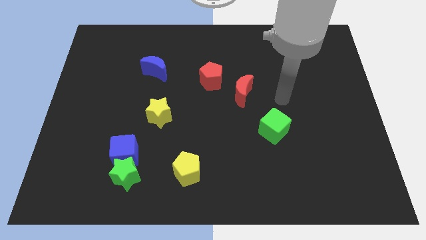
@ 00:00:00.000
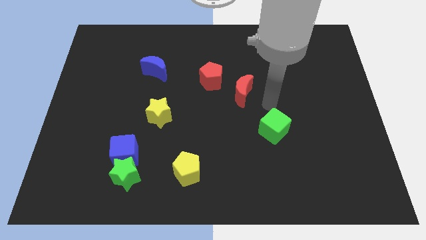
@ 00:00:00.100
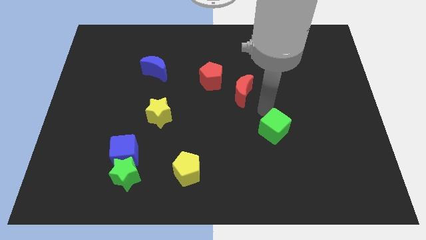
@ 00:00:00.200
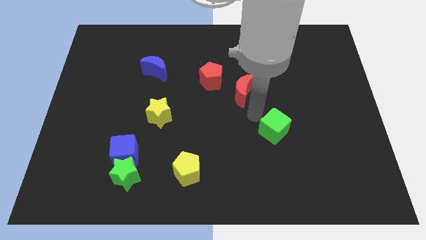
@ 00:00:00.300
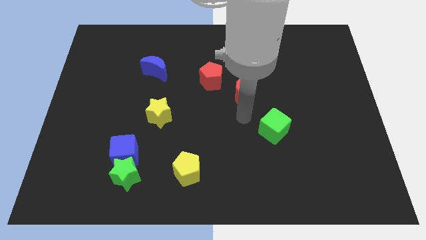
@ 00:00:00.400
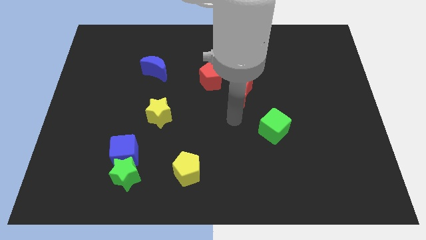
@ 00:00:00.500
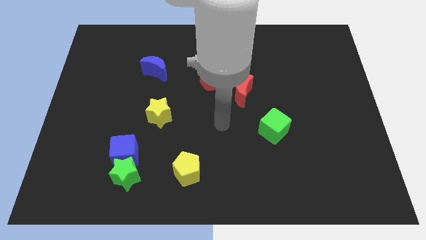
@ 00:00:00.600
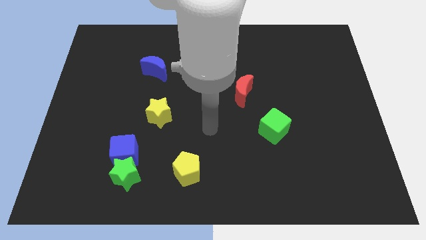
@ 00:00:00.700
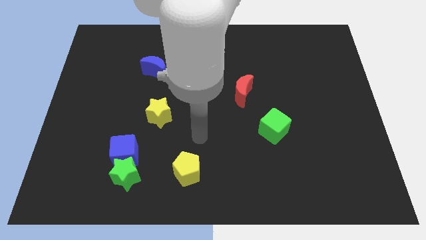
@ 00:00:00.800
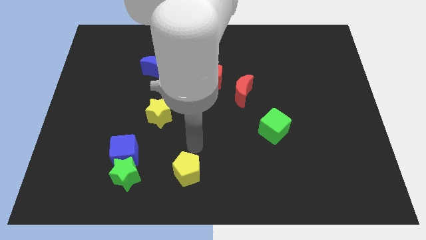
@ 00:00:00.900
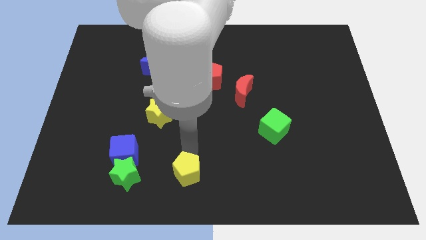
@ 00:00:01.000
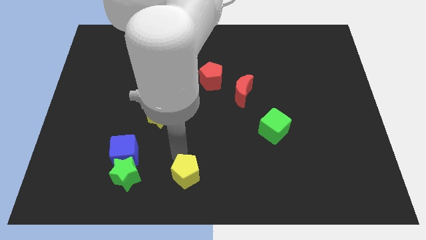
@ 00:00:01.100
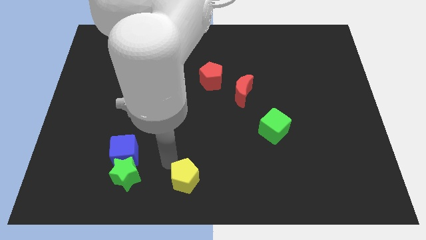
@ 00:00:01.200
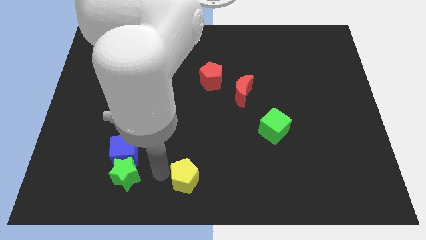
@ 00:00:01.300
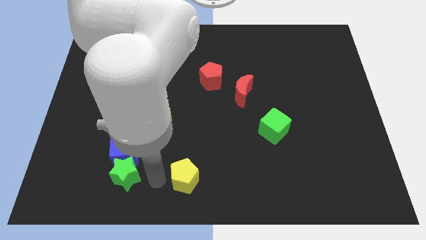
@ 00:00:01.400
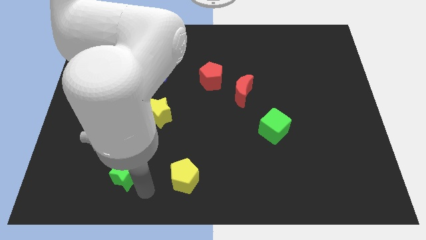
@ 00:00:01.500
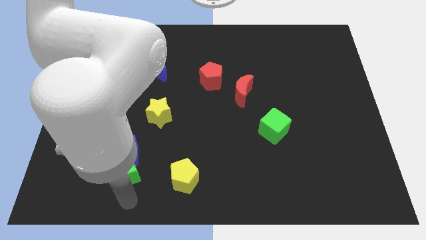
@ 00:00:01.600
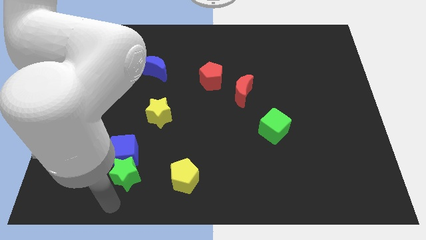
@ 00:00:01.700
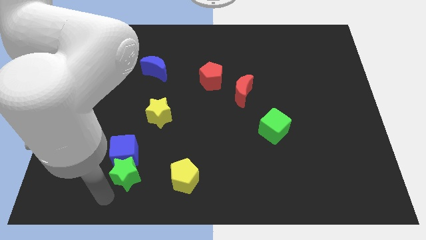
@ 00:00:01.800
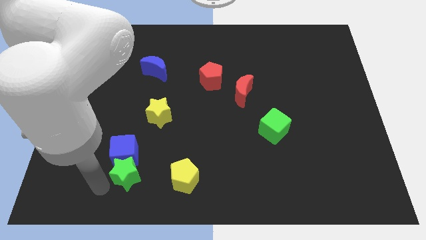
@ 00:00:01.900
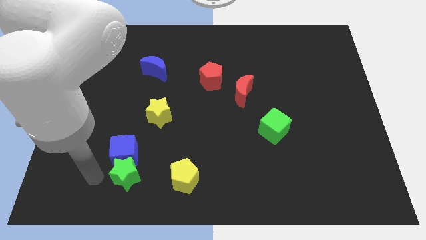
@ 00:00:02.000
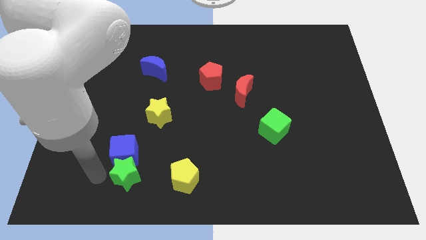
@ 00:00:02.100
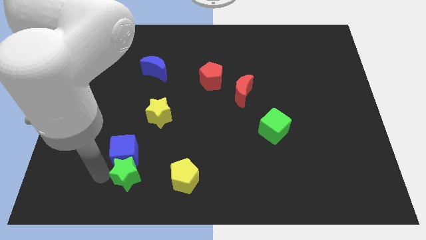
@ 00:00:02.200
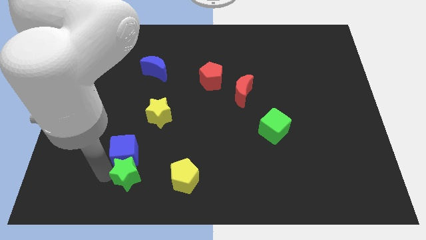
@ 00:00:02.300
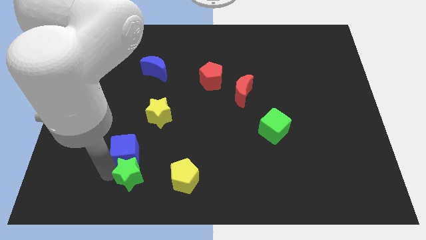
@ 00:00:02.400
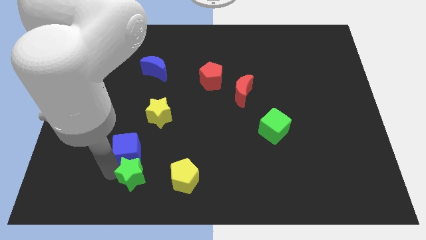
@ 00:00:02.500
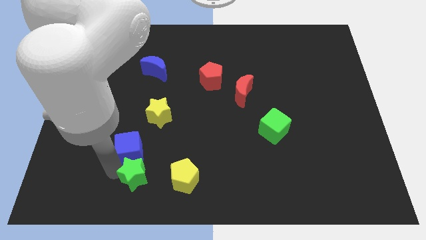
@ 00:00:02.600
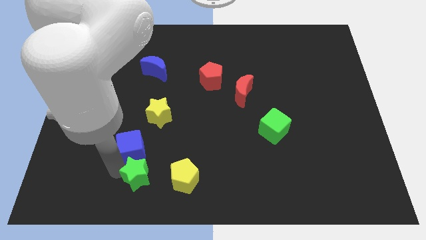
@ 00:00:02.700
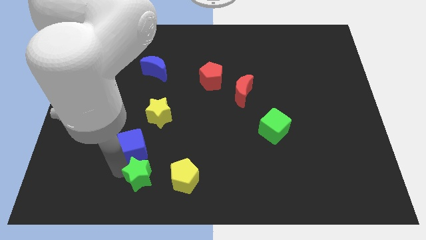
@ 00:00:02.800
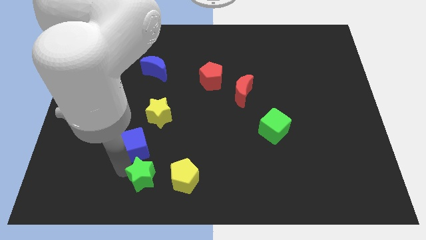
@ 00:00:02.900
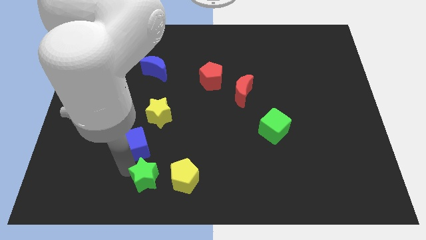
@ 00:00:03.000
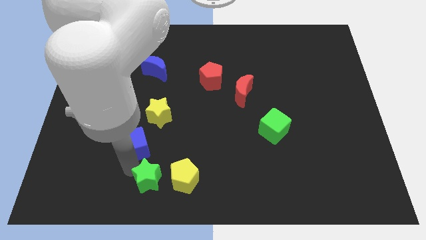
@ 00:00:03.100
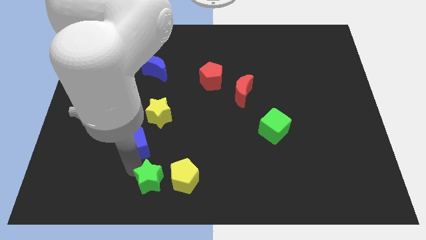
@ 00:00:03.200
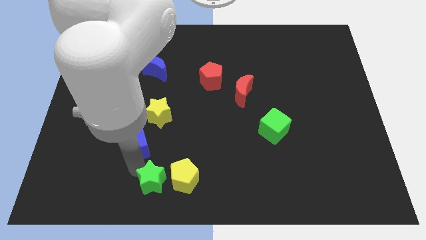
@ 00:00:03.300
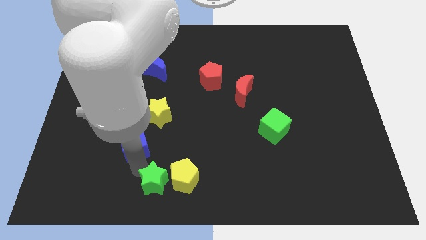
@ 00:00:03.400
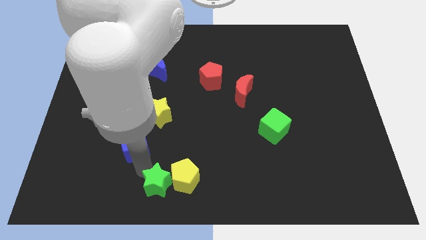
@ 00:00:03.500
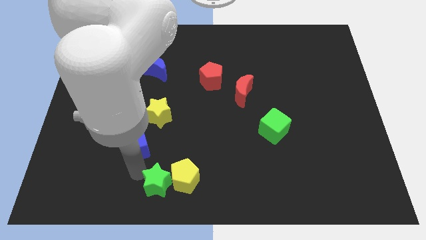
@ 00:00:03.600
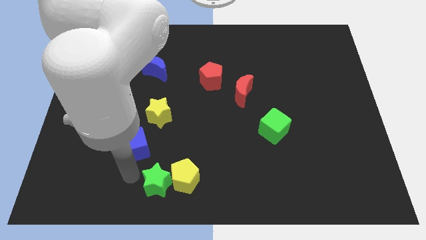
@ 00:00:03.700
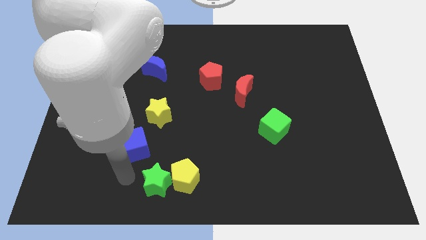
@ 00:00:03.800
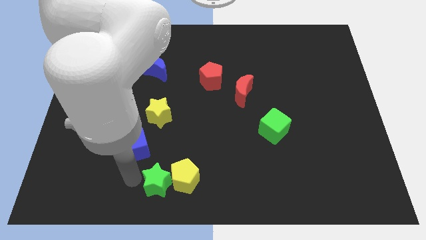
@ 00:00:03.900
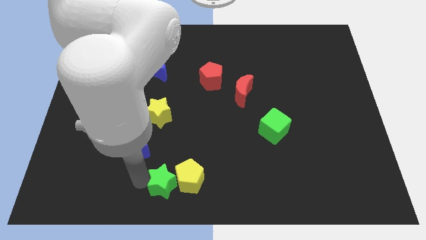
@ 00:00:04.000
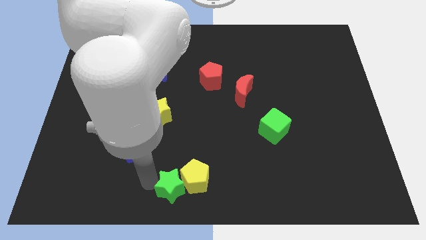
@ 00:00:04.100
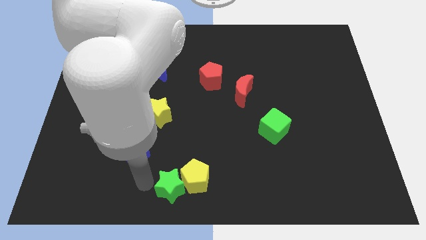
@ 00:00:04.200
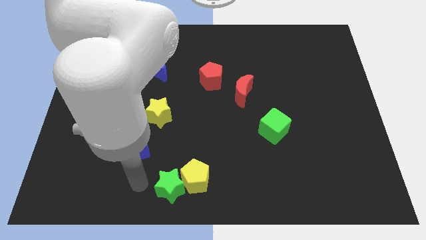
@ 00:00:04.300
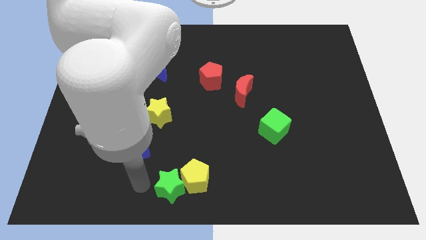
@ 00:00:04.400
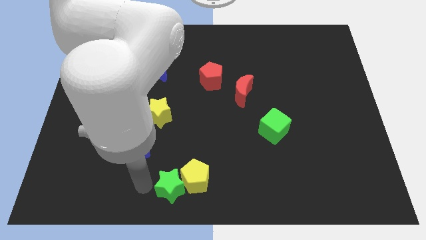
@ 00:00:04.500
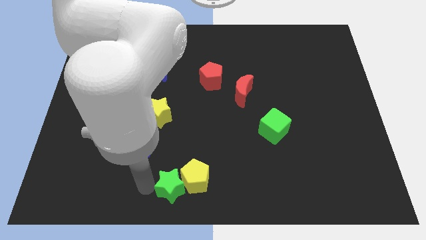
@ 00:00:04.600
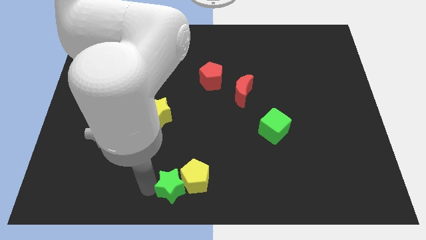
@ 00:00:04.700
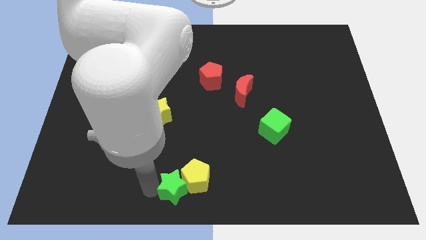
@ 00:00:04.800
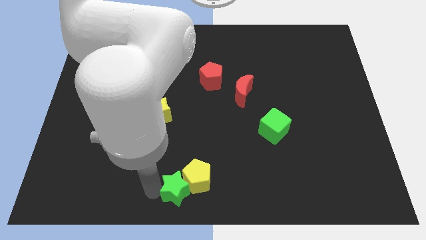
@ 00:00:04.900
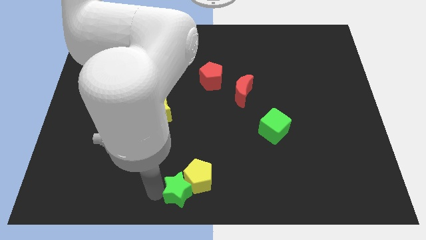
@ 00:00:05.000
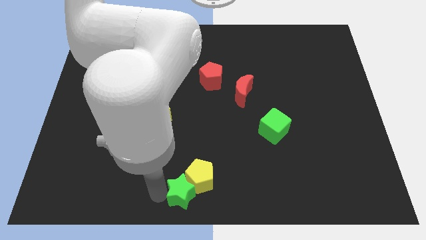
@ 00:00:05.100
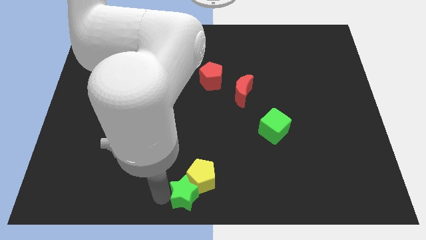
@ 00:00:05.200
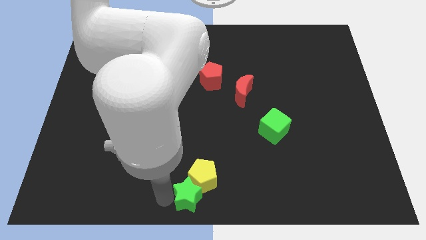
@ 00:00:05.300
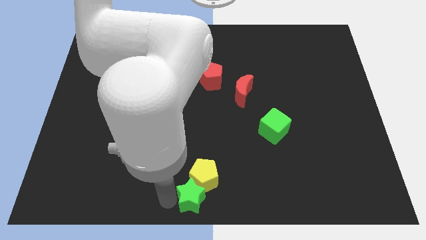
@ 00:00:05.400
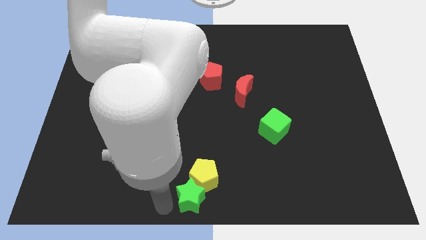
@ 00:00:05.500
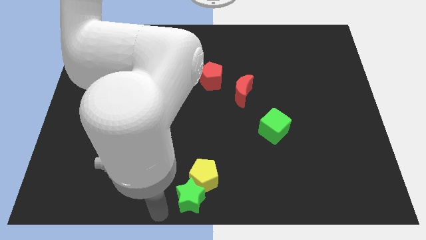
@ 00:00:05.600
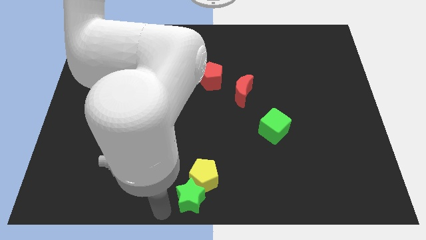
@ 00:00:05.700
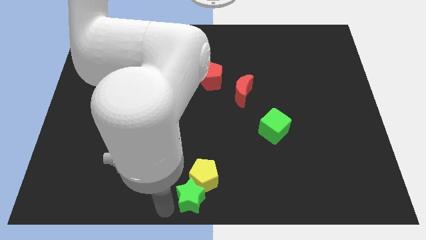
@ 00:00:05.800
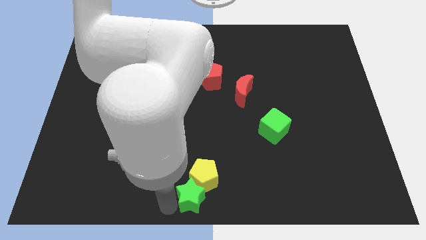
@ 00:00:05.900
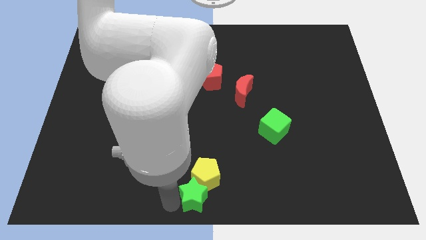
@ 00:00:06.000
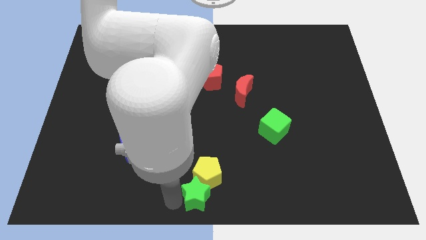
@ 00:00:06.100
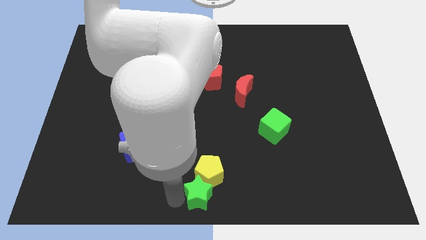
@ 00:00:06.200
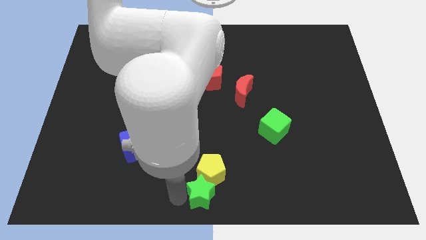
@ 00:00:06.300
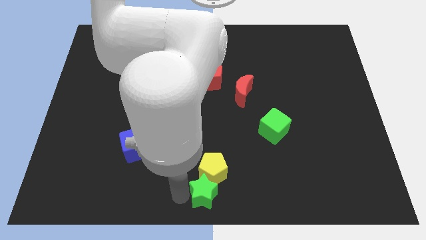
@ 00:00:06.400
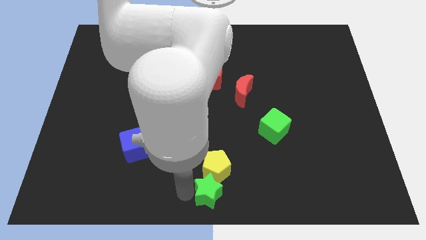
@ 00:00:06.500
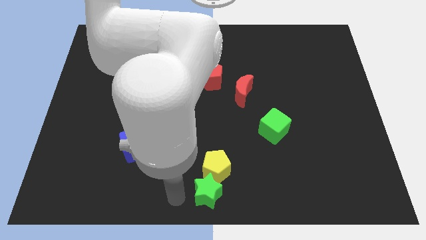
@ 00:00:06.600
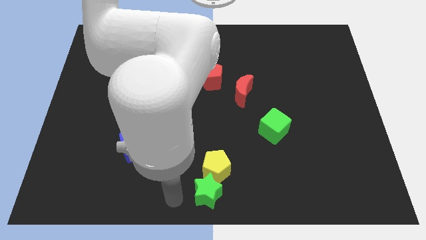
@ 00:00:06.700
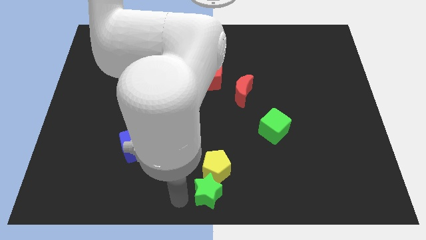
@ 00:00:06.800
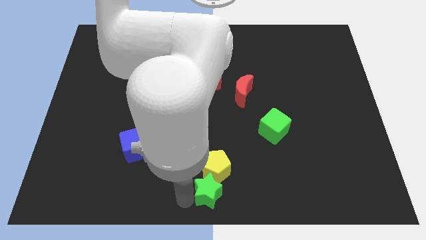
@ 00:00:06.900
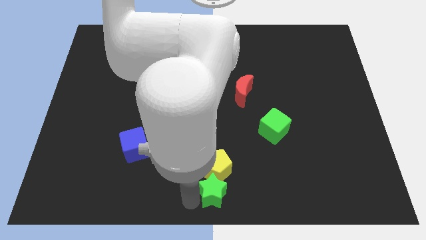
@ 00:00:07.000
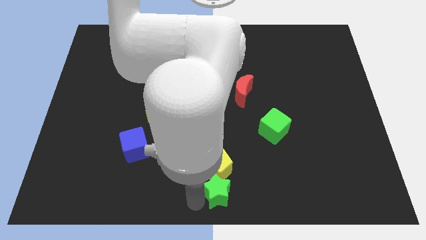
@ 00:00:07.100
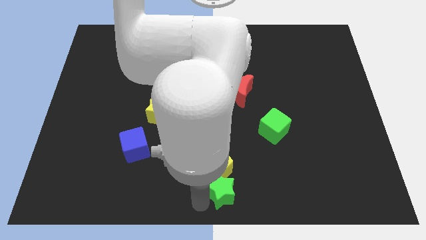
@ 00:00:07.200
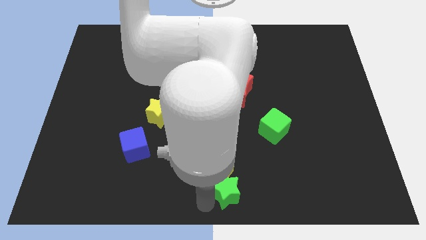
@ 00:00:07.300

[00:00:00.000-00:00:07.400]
move the green star to the right

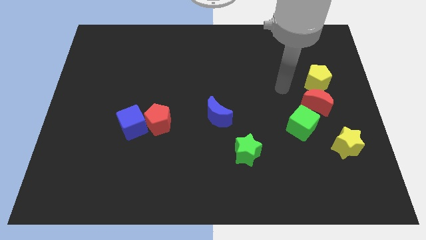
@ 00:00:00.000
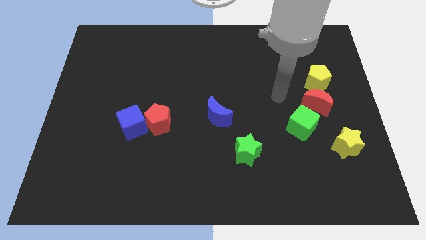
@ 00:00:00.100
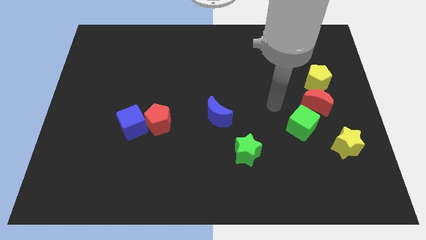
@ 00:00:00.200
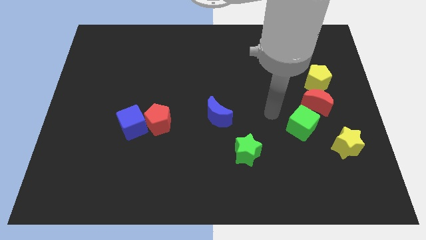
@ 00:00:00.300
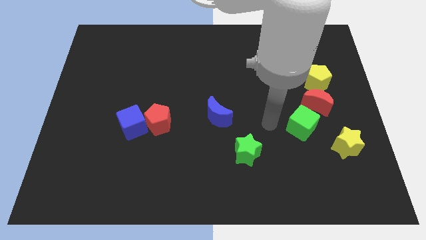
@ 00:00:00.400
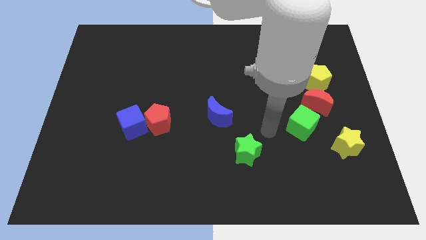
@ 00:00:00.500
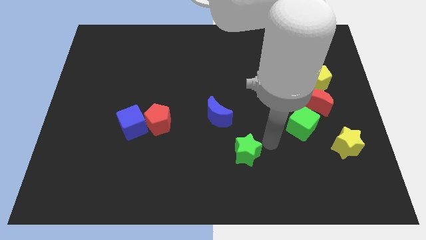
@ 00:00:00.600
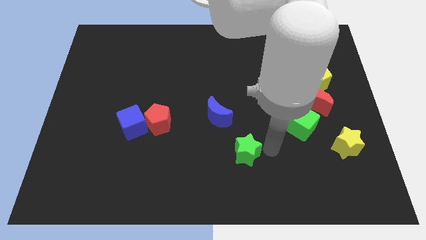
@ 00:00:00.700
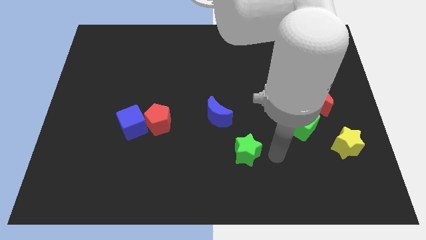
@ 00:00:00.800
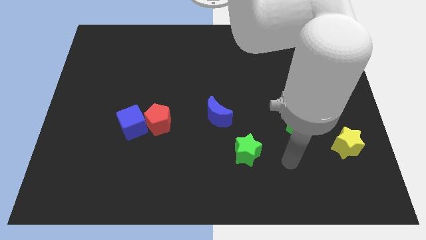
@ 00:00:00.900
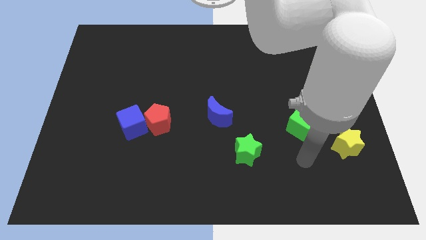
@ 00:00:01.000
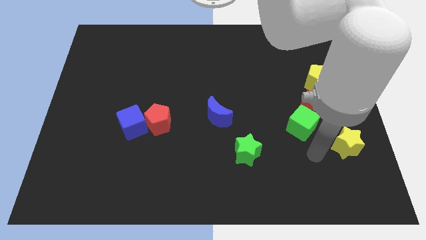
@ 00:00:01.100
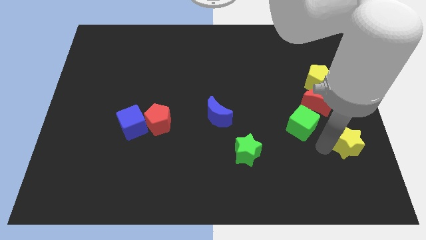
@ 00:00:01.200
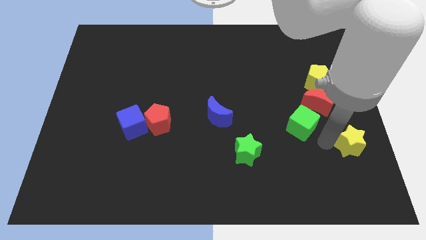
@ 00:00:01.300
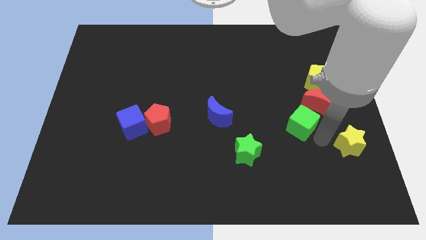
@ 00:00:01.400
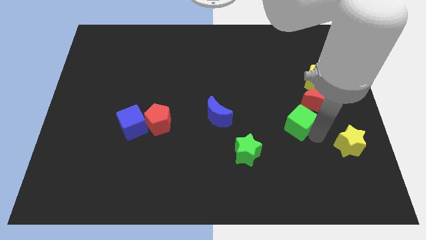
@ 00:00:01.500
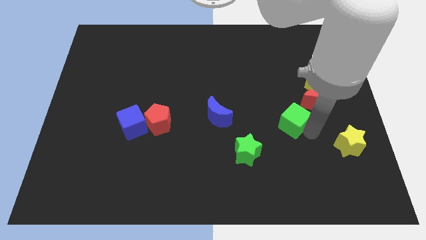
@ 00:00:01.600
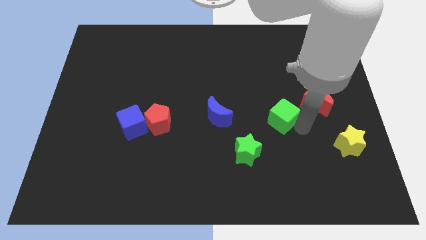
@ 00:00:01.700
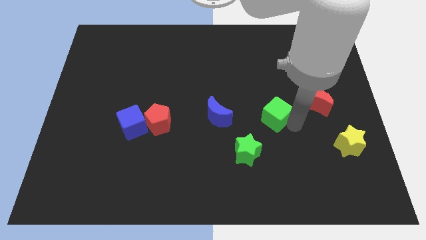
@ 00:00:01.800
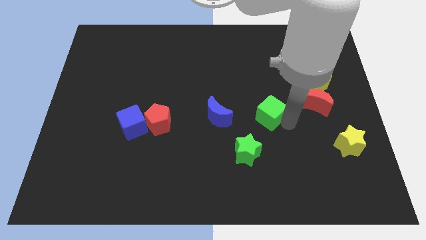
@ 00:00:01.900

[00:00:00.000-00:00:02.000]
move the green cube a bit upwards and then to the left
